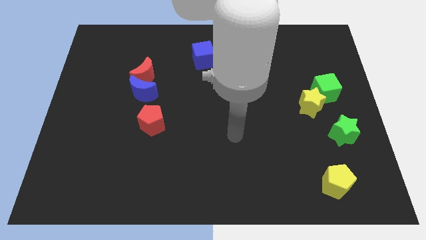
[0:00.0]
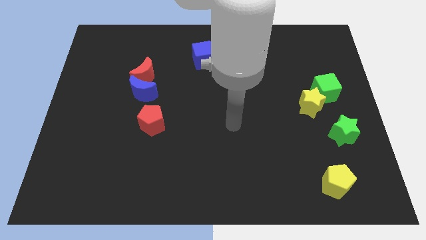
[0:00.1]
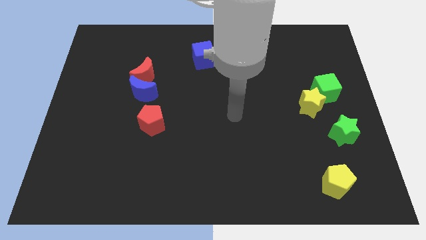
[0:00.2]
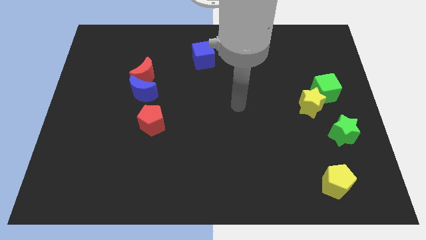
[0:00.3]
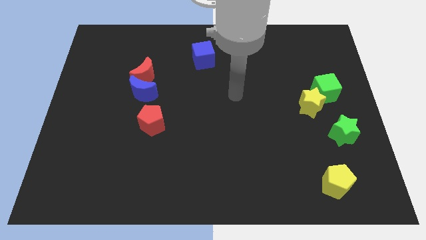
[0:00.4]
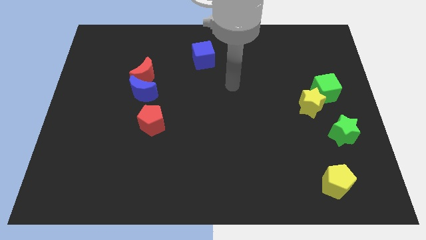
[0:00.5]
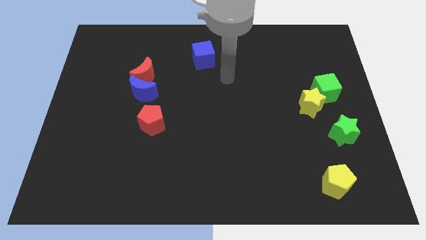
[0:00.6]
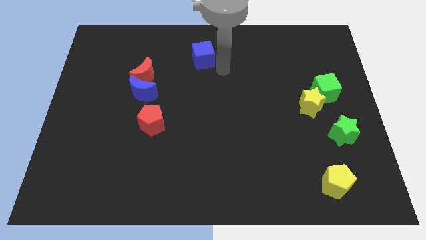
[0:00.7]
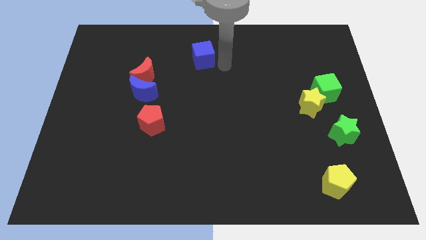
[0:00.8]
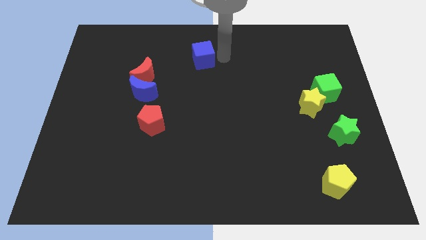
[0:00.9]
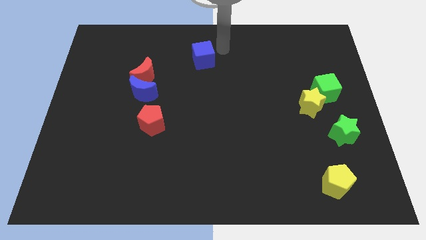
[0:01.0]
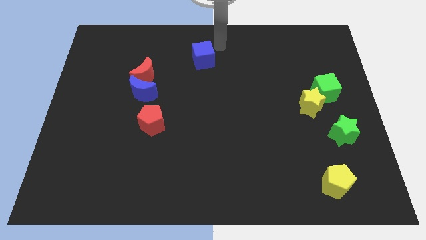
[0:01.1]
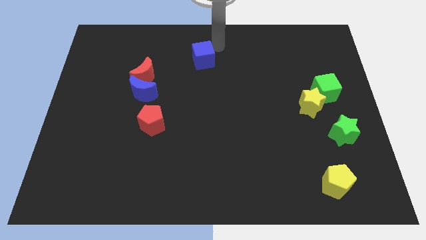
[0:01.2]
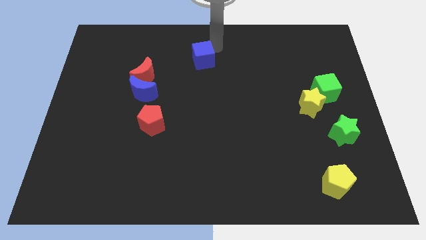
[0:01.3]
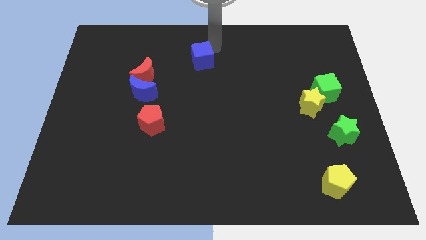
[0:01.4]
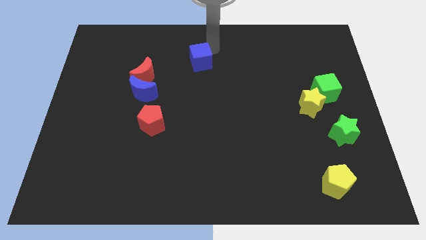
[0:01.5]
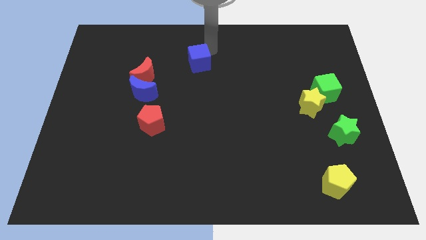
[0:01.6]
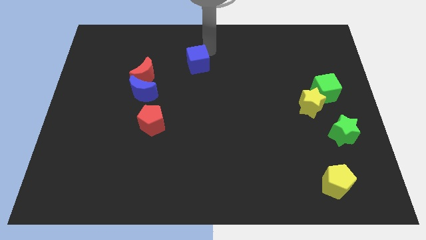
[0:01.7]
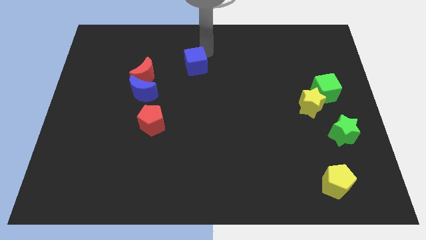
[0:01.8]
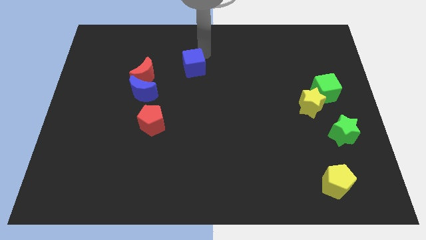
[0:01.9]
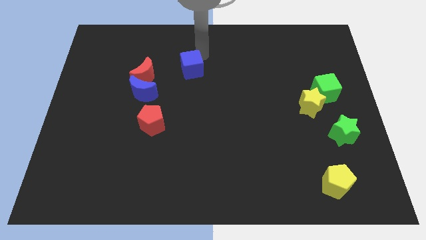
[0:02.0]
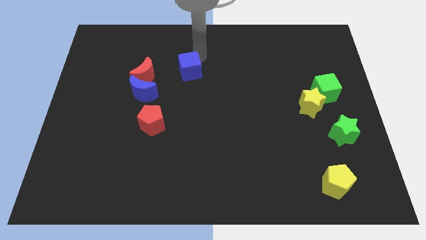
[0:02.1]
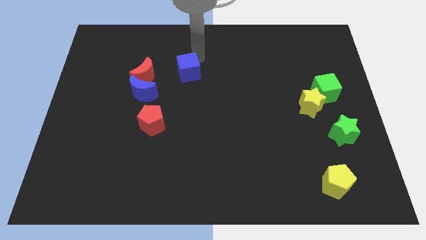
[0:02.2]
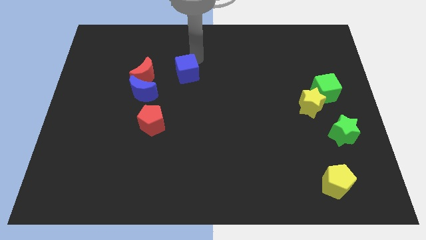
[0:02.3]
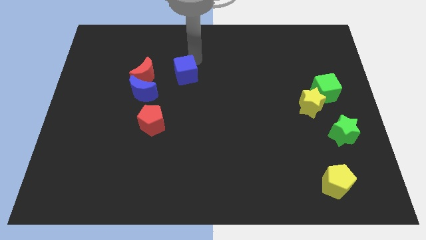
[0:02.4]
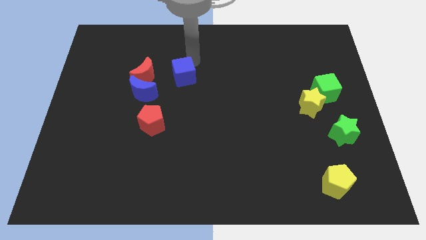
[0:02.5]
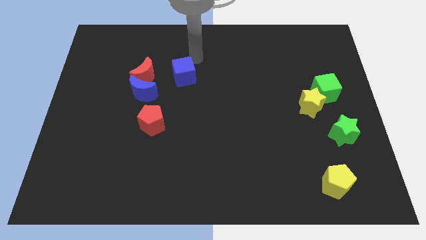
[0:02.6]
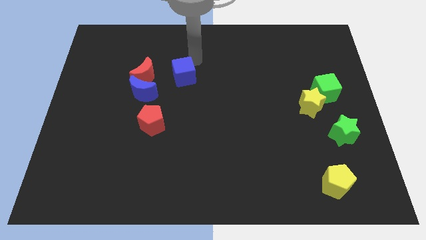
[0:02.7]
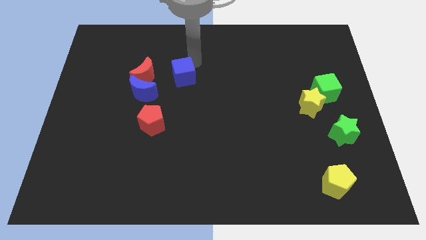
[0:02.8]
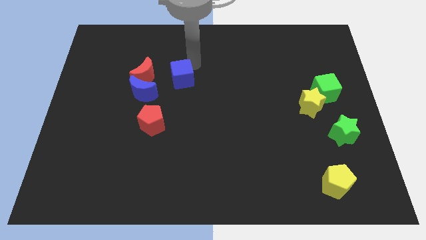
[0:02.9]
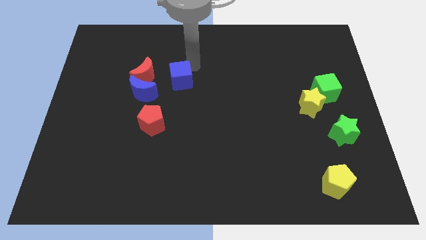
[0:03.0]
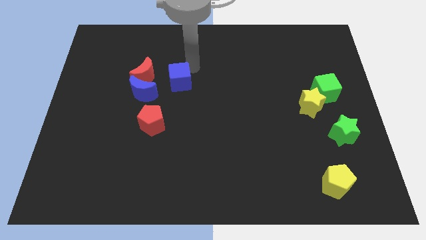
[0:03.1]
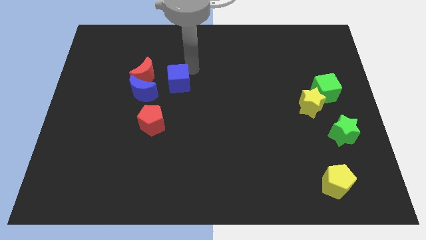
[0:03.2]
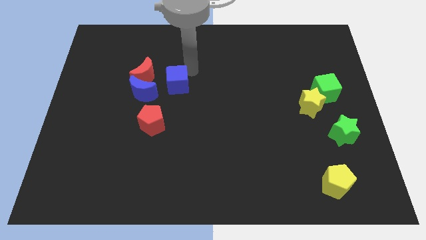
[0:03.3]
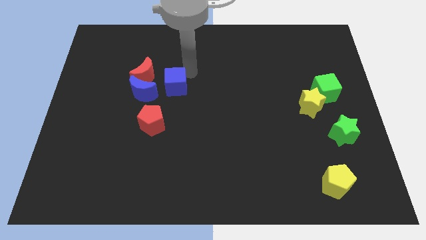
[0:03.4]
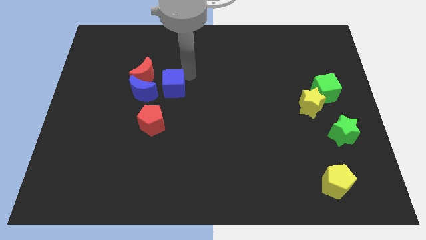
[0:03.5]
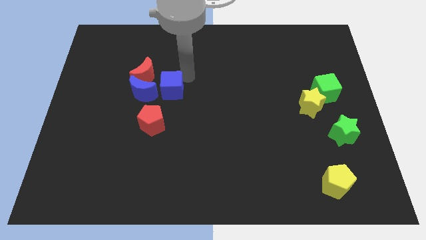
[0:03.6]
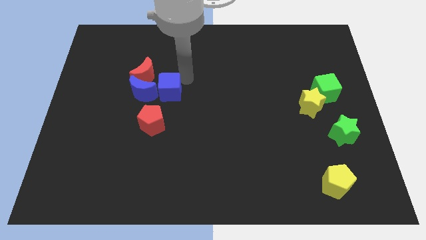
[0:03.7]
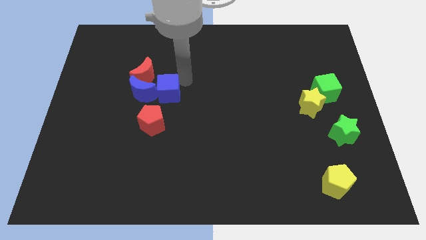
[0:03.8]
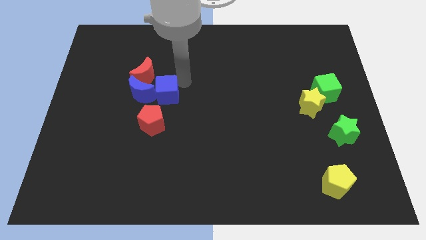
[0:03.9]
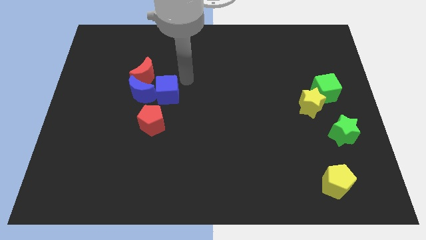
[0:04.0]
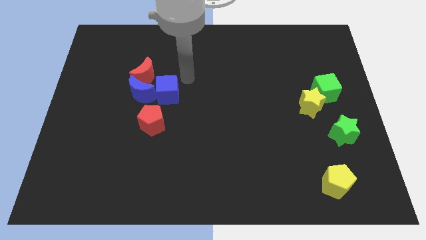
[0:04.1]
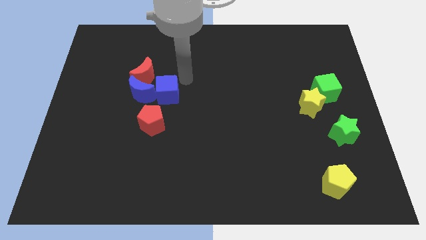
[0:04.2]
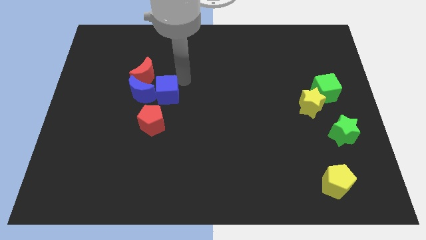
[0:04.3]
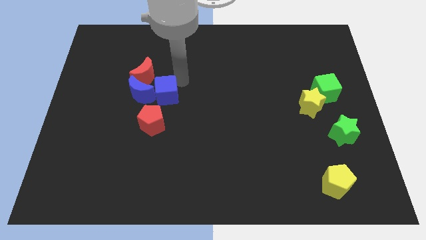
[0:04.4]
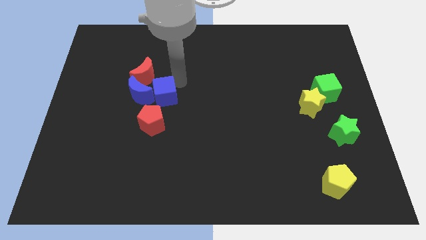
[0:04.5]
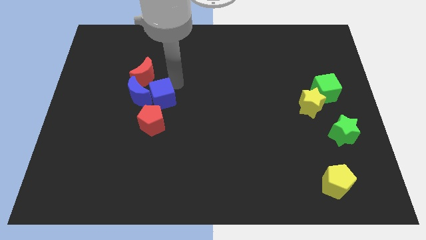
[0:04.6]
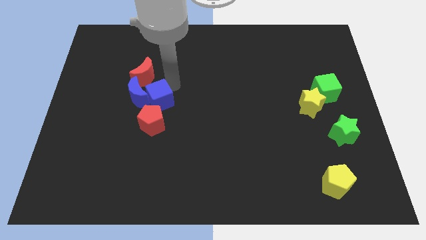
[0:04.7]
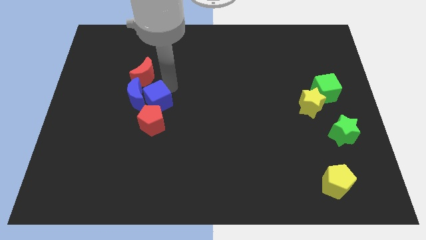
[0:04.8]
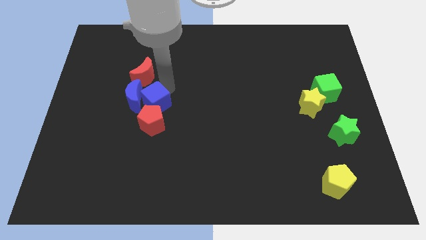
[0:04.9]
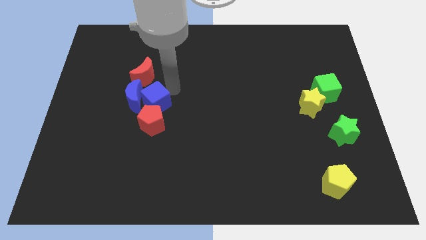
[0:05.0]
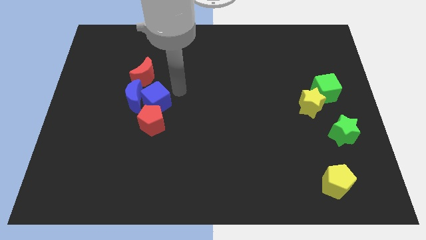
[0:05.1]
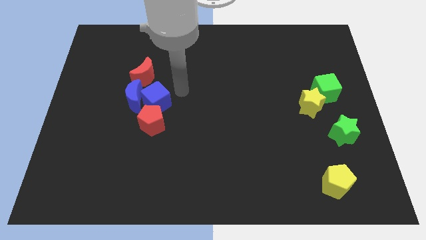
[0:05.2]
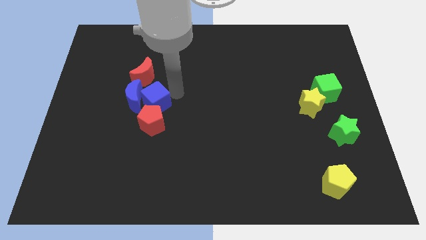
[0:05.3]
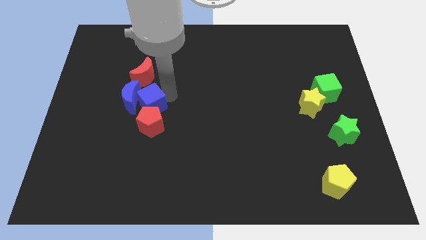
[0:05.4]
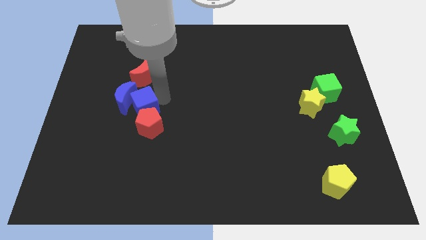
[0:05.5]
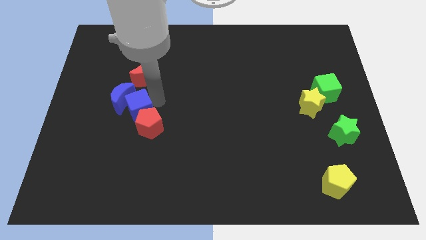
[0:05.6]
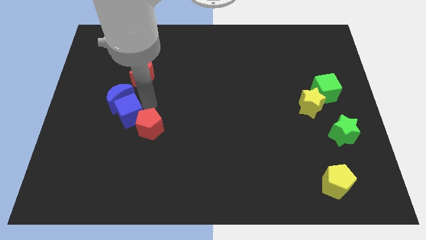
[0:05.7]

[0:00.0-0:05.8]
move the blue cube just left of the red pentagon
